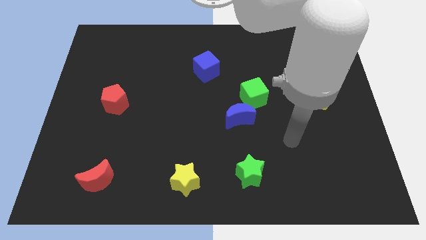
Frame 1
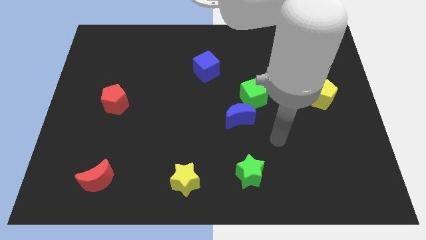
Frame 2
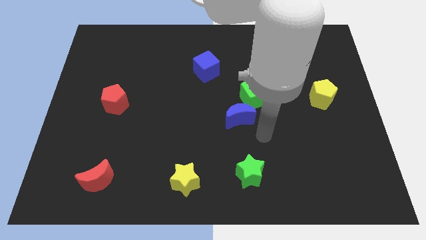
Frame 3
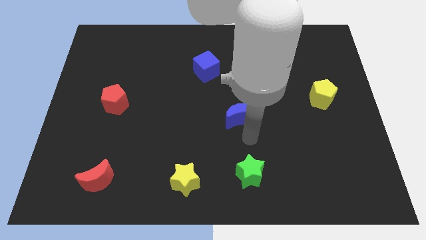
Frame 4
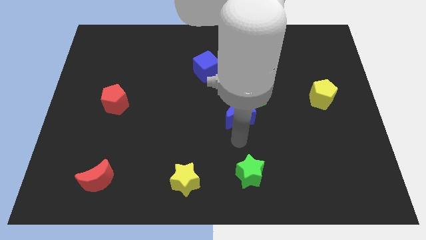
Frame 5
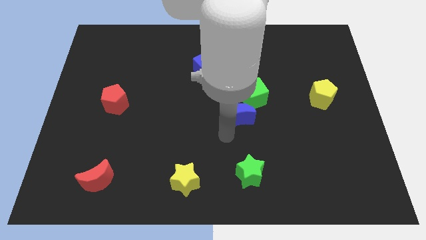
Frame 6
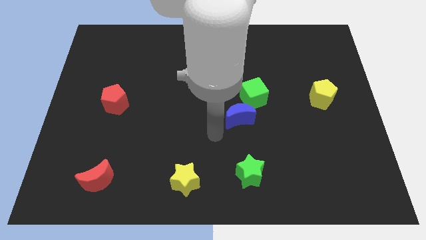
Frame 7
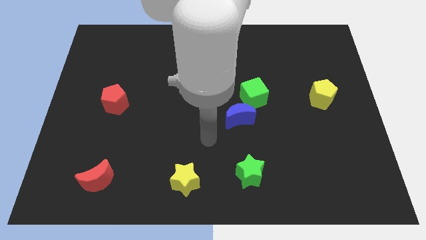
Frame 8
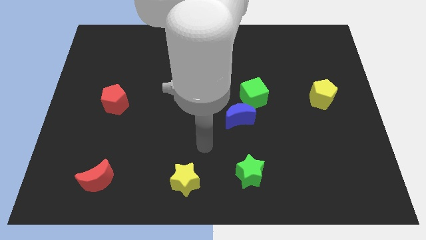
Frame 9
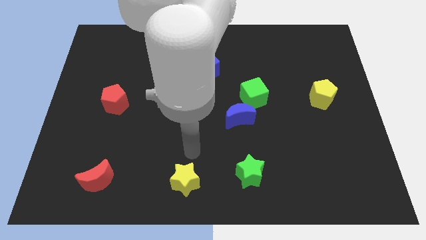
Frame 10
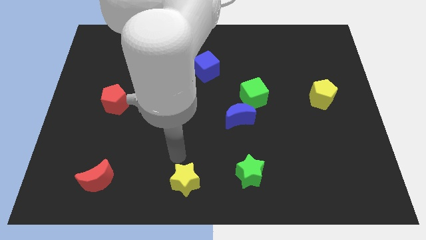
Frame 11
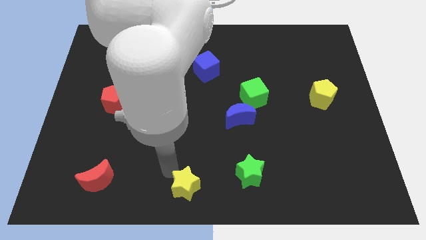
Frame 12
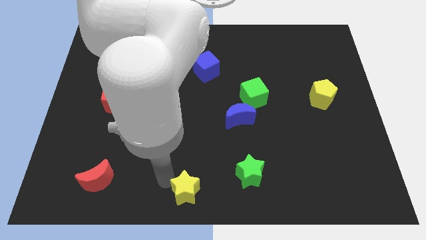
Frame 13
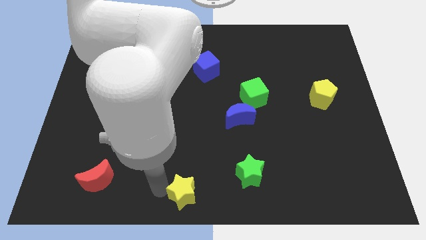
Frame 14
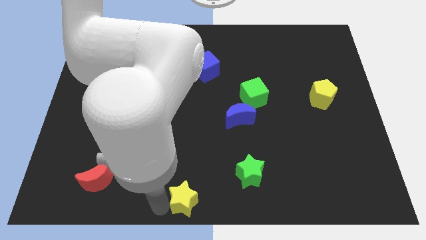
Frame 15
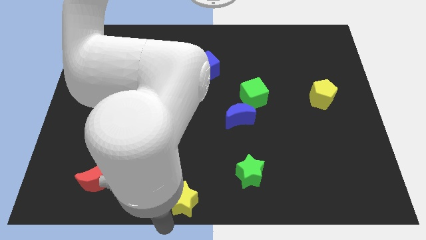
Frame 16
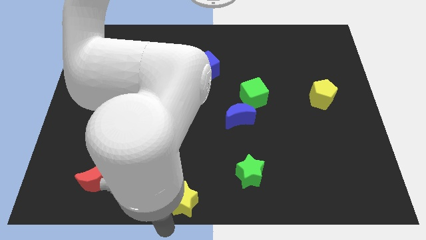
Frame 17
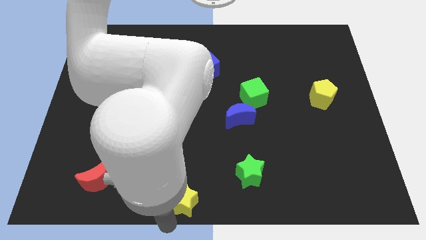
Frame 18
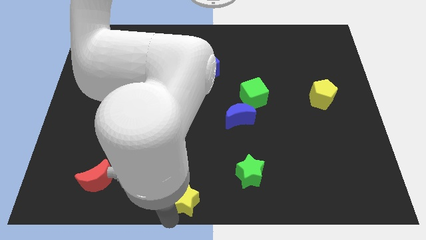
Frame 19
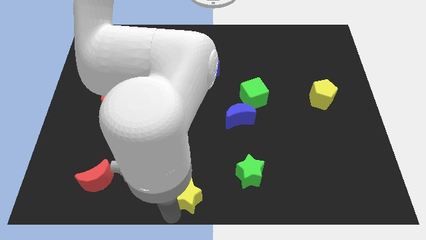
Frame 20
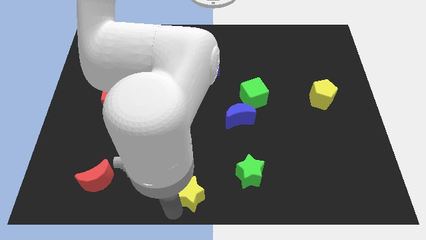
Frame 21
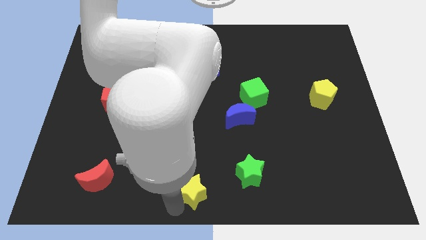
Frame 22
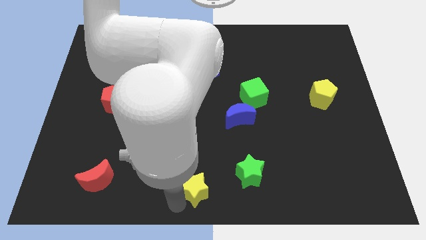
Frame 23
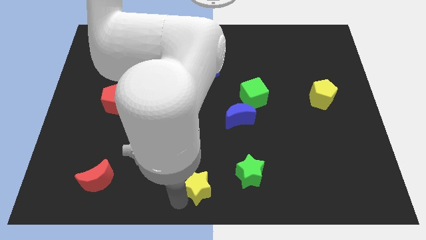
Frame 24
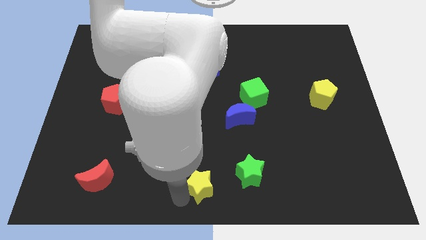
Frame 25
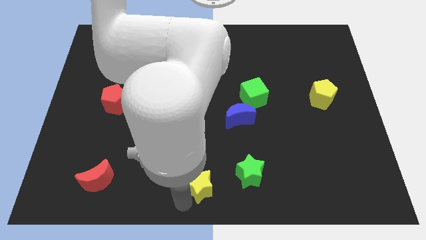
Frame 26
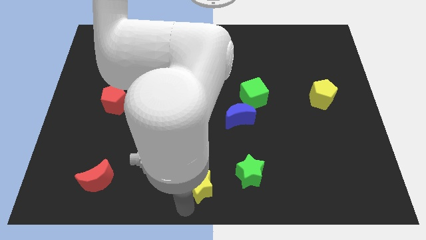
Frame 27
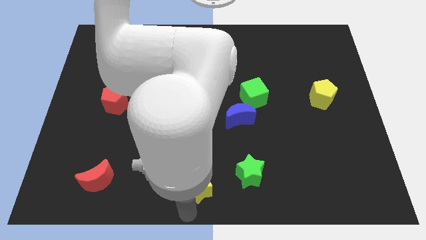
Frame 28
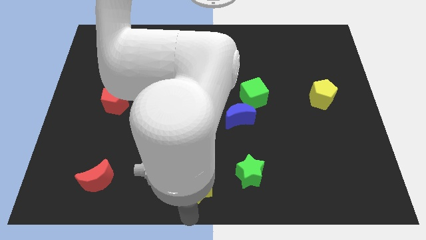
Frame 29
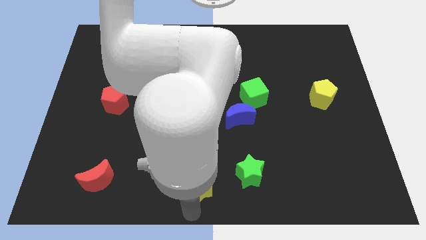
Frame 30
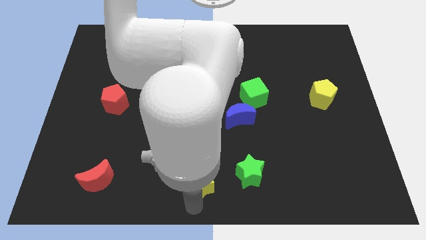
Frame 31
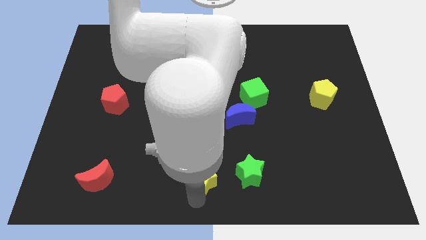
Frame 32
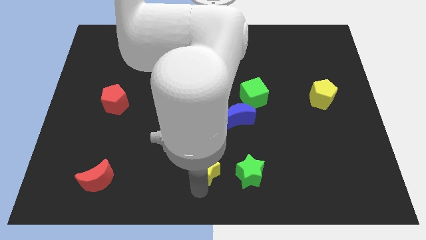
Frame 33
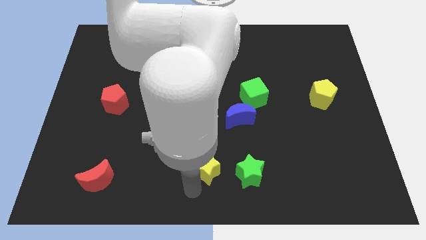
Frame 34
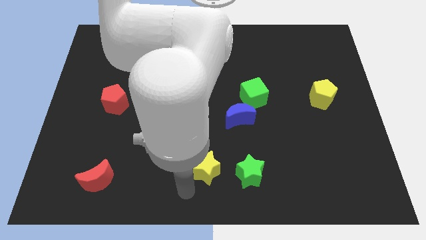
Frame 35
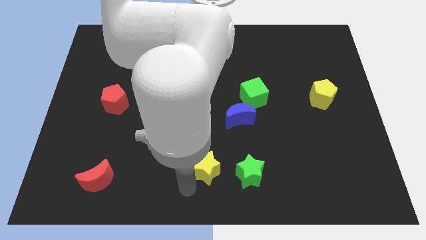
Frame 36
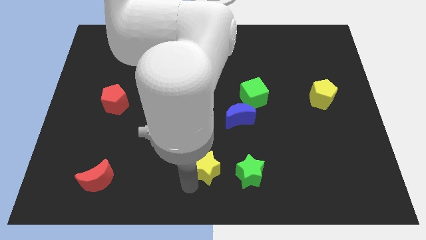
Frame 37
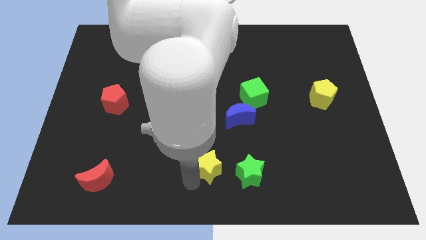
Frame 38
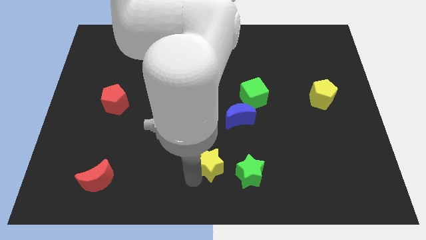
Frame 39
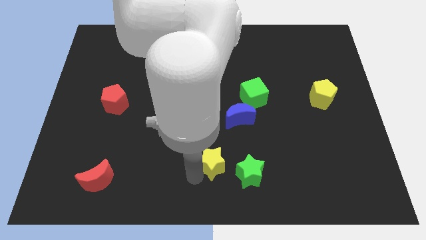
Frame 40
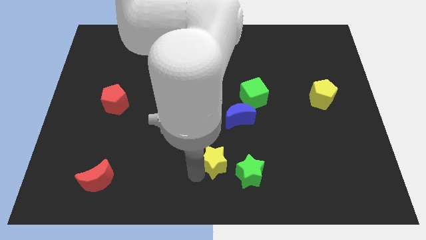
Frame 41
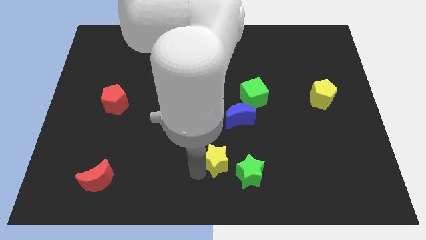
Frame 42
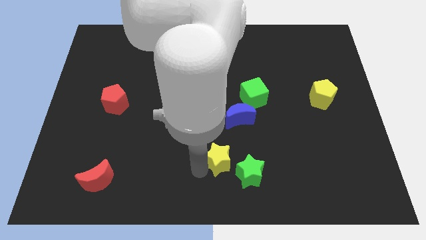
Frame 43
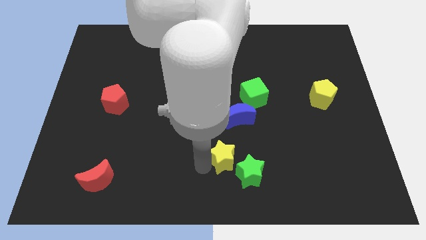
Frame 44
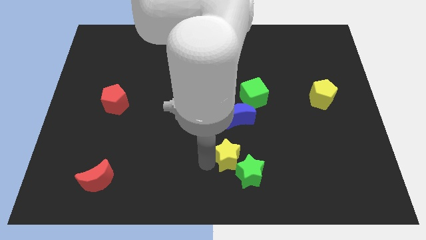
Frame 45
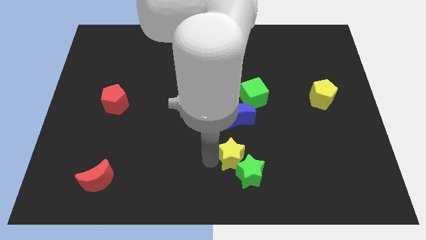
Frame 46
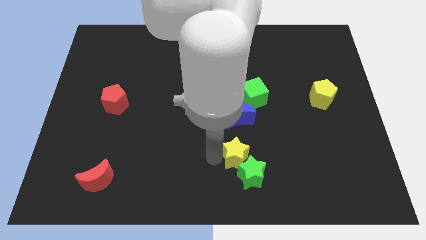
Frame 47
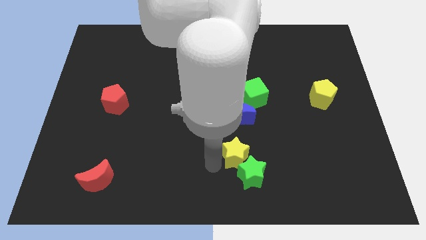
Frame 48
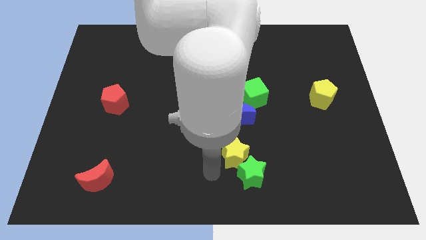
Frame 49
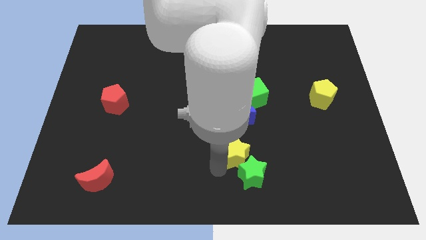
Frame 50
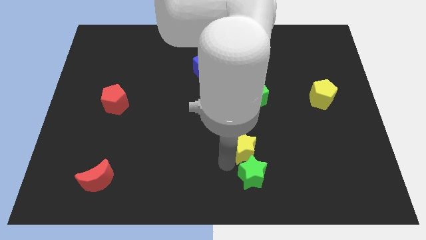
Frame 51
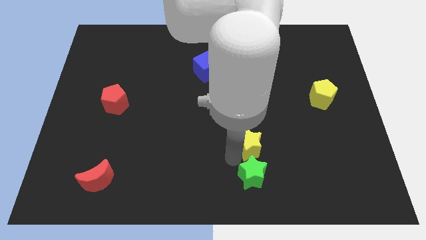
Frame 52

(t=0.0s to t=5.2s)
move the yellow star diagonally down and to the right of the blue moon

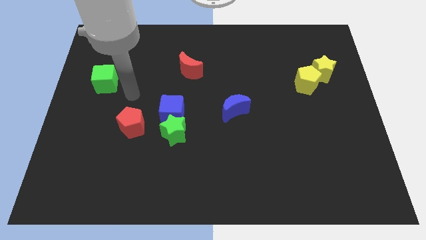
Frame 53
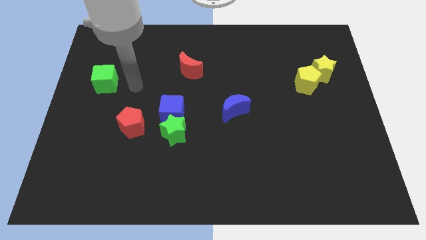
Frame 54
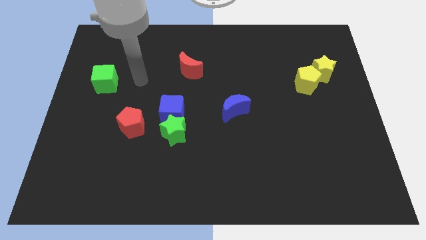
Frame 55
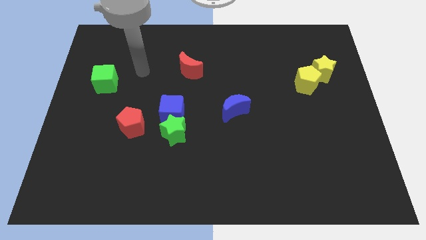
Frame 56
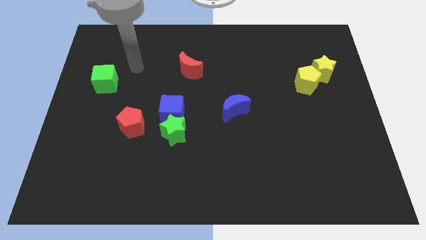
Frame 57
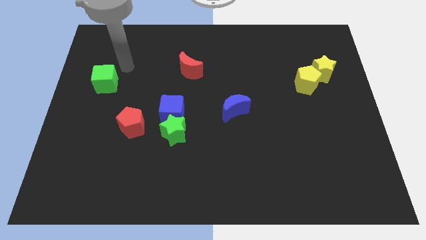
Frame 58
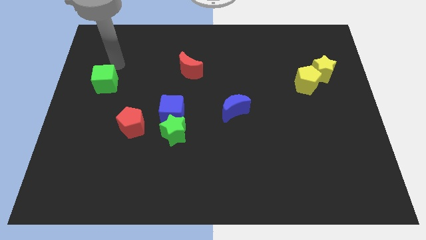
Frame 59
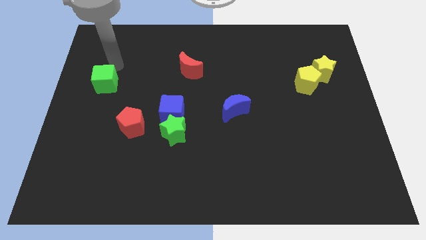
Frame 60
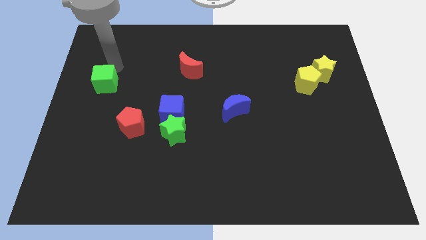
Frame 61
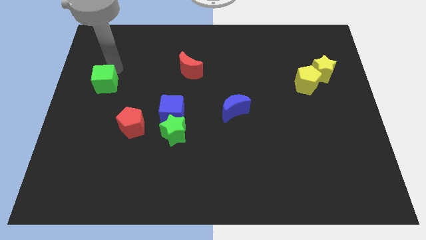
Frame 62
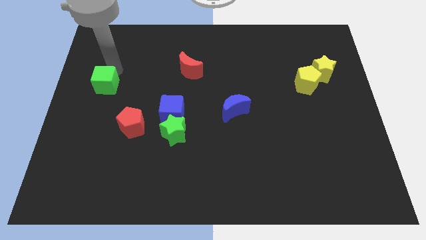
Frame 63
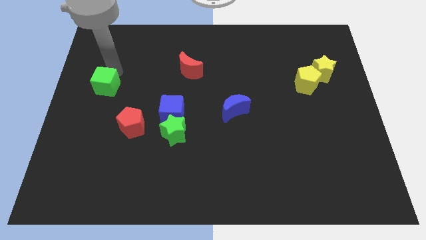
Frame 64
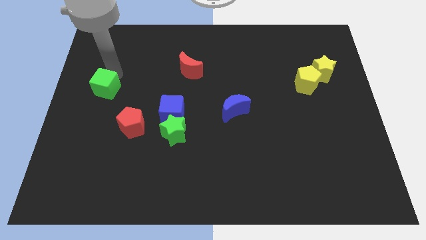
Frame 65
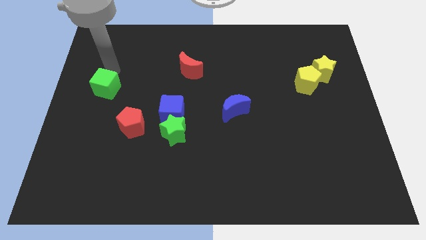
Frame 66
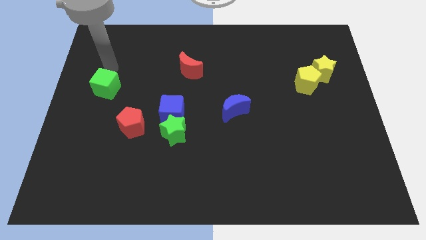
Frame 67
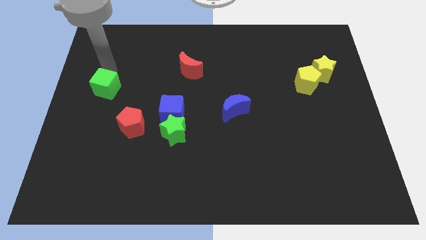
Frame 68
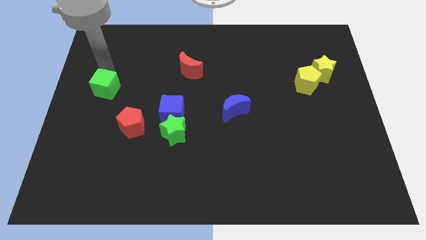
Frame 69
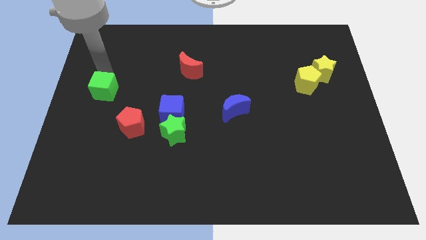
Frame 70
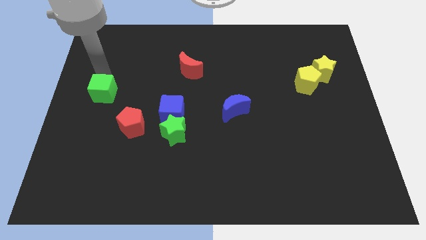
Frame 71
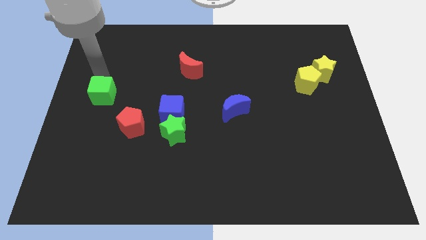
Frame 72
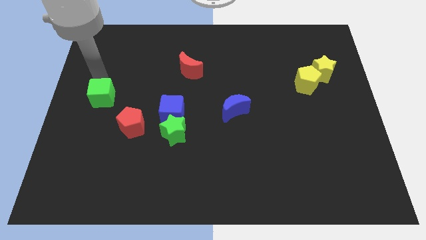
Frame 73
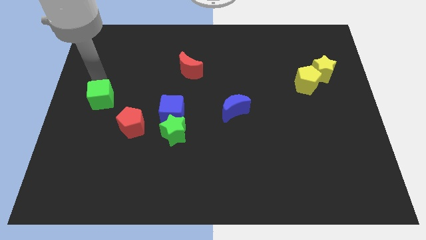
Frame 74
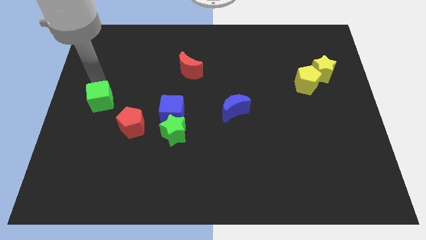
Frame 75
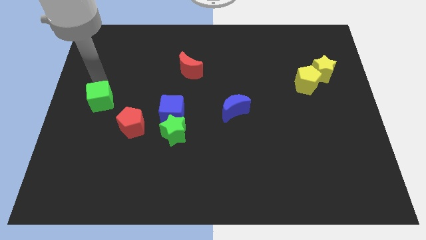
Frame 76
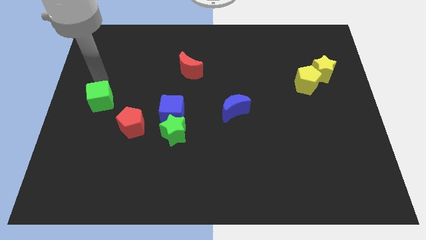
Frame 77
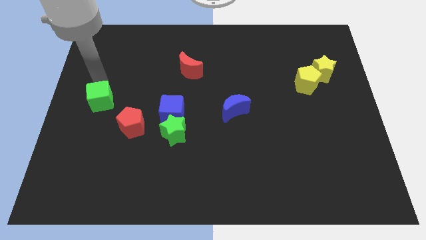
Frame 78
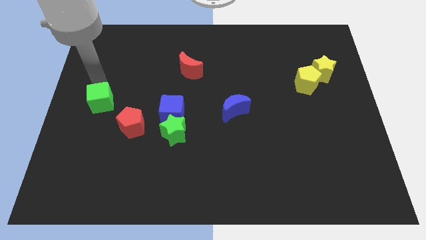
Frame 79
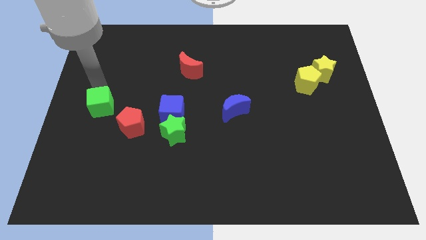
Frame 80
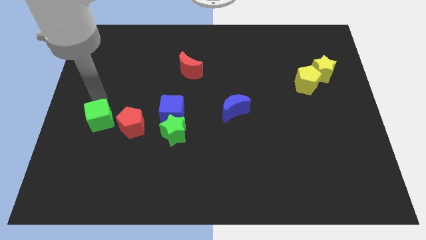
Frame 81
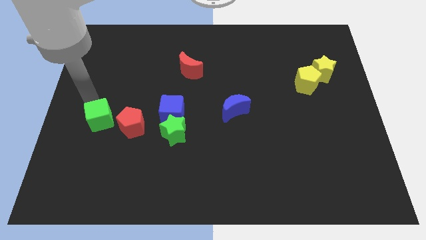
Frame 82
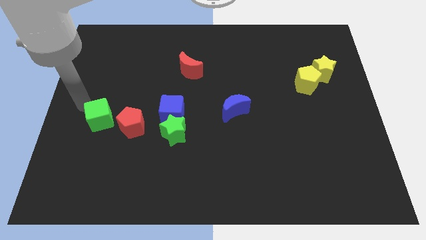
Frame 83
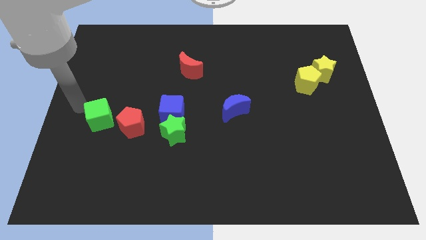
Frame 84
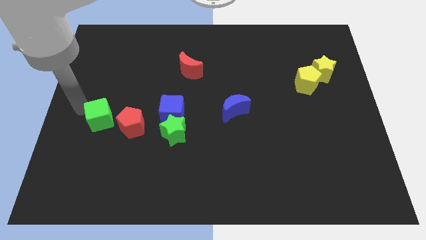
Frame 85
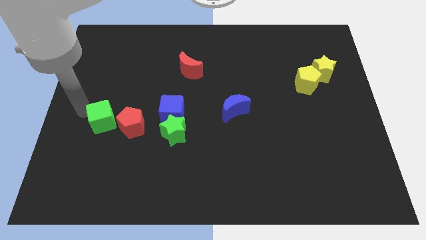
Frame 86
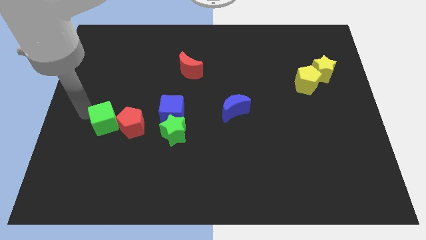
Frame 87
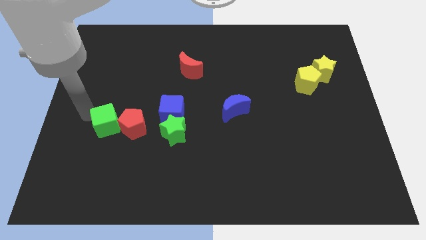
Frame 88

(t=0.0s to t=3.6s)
push the green cube to the left of the green star
